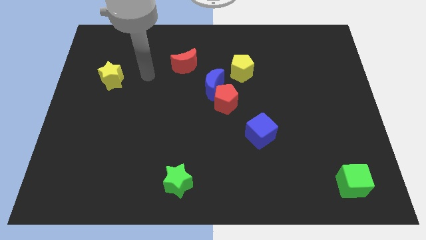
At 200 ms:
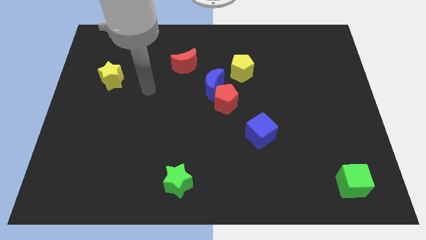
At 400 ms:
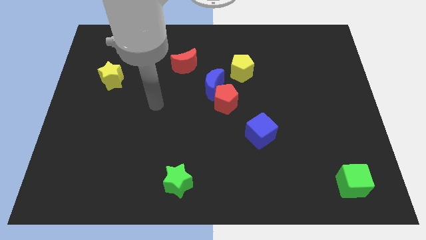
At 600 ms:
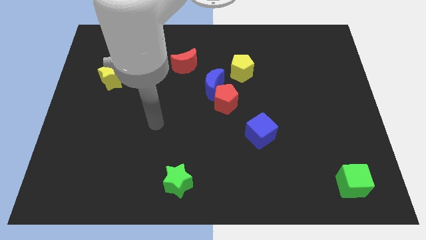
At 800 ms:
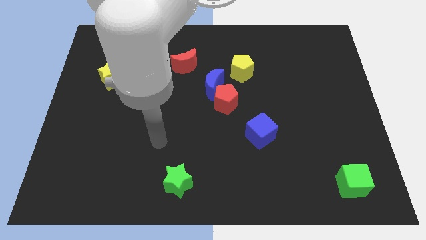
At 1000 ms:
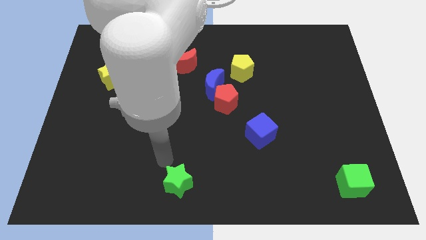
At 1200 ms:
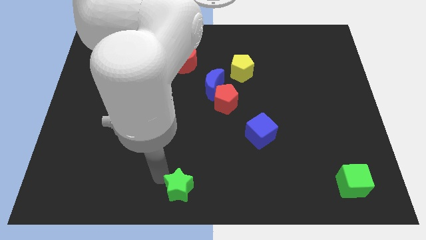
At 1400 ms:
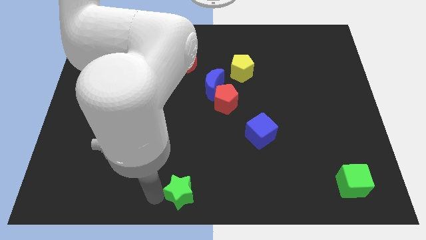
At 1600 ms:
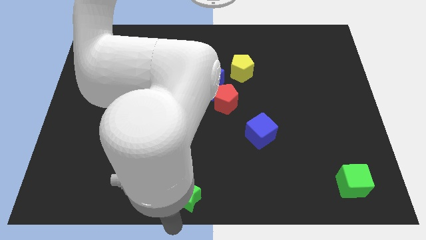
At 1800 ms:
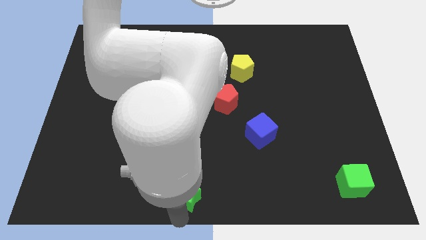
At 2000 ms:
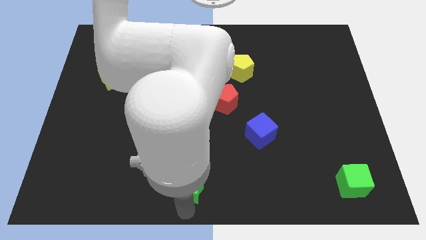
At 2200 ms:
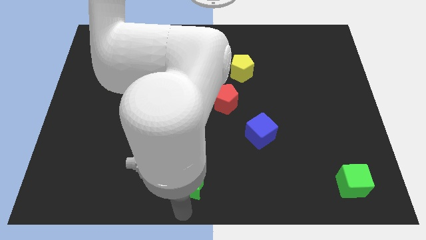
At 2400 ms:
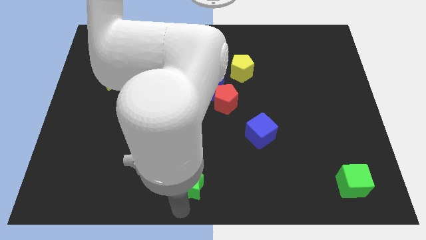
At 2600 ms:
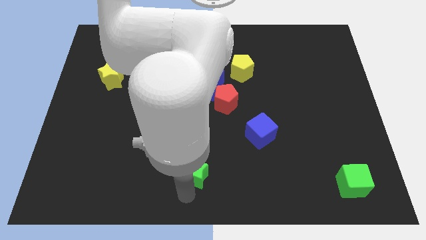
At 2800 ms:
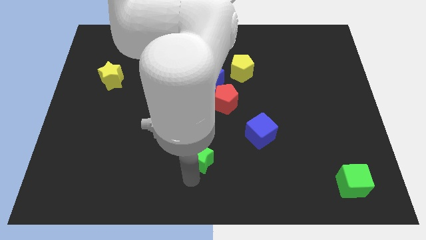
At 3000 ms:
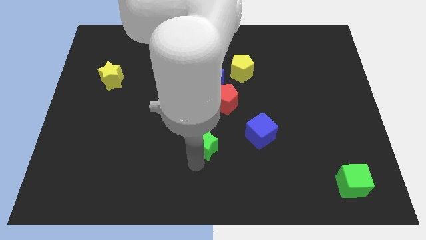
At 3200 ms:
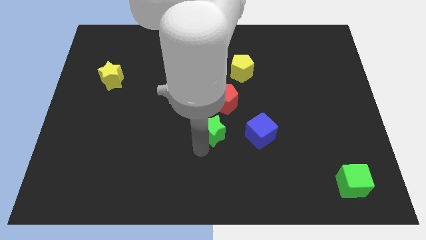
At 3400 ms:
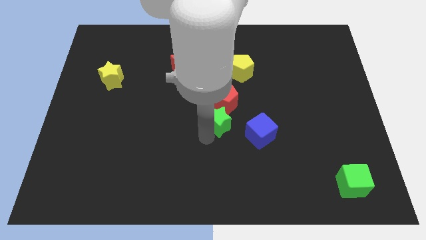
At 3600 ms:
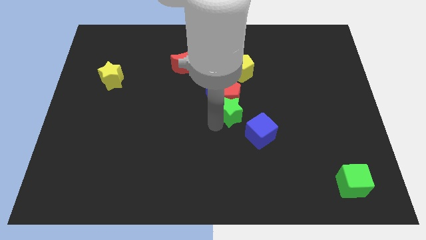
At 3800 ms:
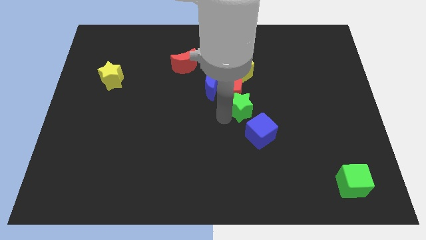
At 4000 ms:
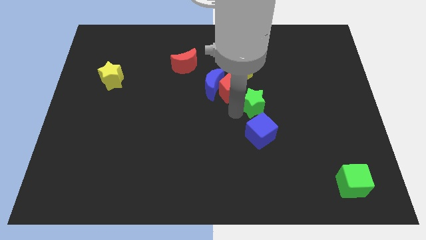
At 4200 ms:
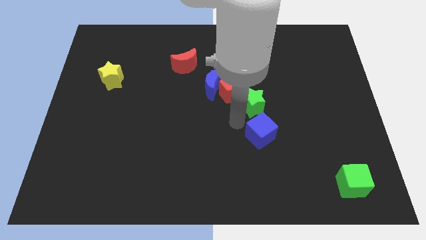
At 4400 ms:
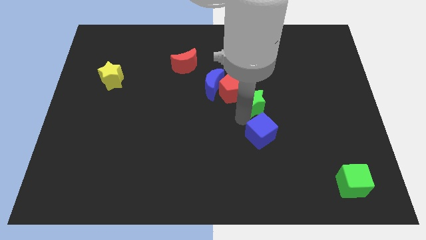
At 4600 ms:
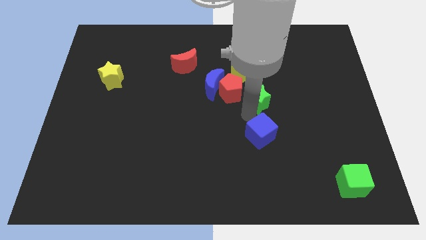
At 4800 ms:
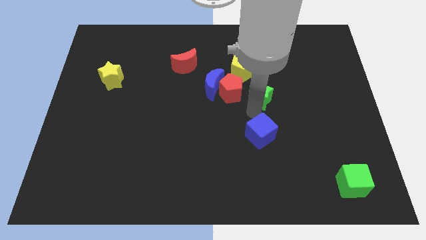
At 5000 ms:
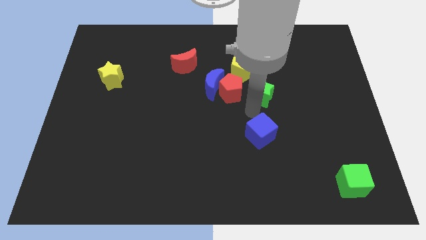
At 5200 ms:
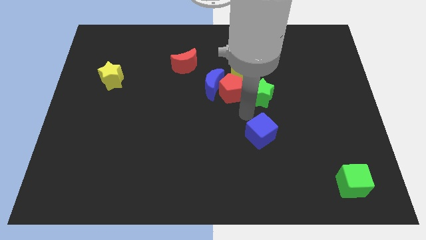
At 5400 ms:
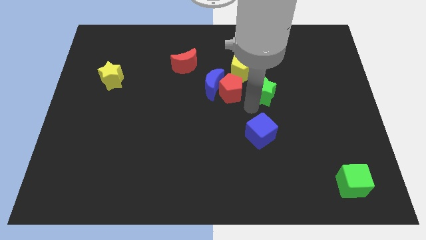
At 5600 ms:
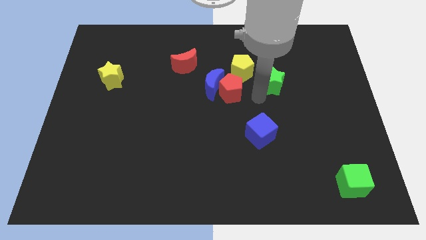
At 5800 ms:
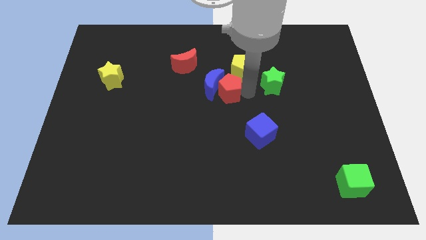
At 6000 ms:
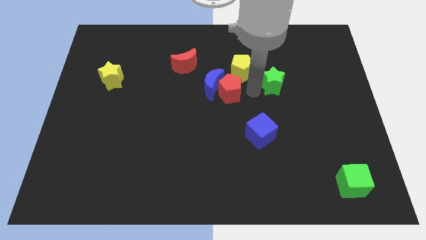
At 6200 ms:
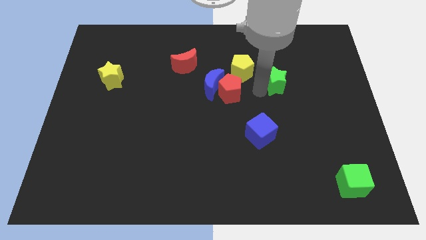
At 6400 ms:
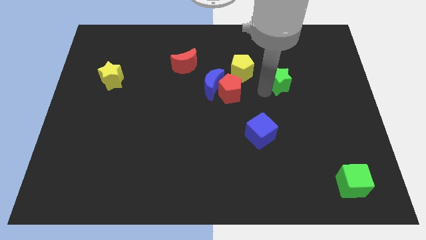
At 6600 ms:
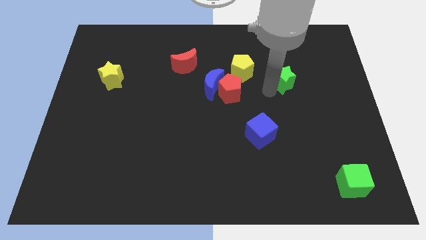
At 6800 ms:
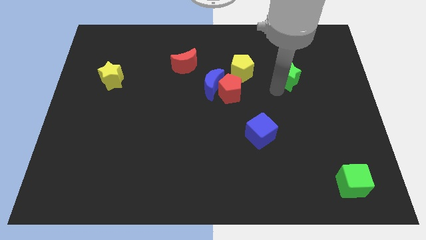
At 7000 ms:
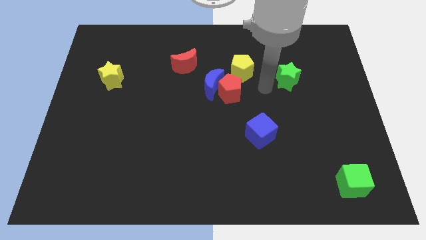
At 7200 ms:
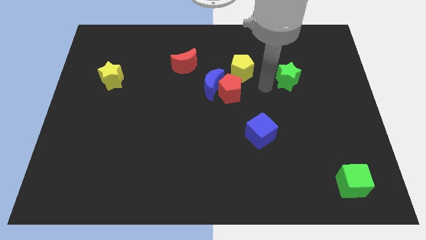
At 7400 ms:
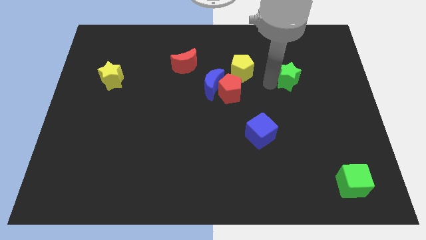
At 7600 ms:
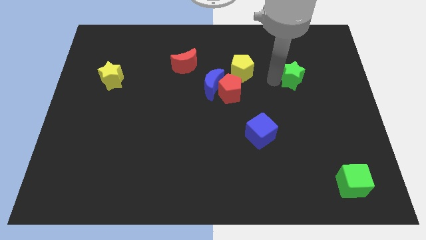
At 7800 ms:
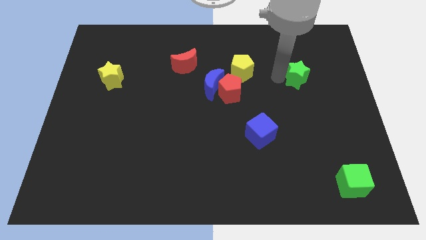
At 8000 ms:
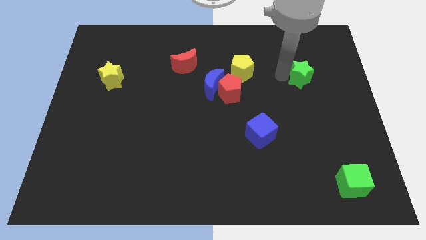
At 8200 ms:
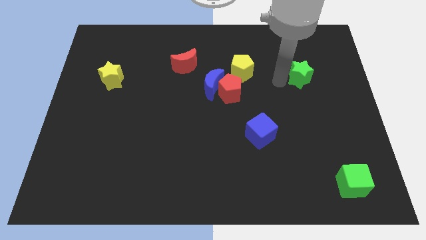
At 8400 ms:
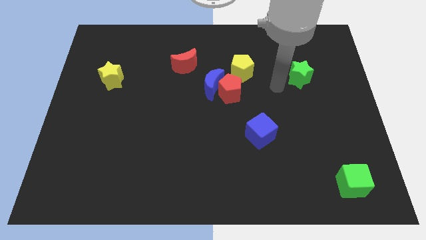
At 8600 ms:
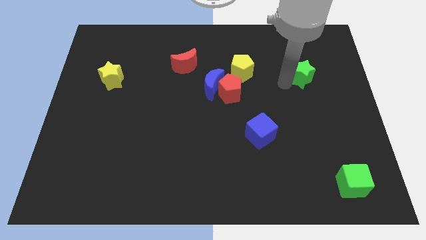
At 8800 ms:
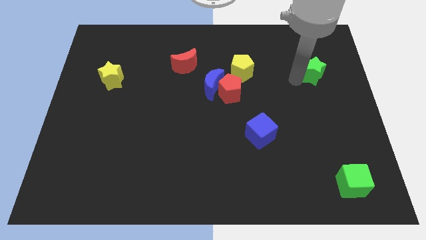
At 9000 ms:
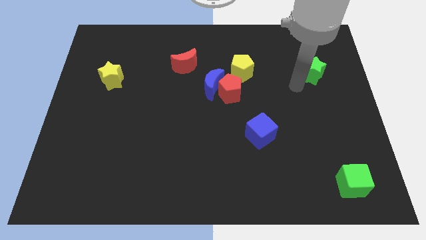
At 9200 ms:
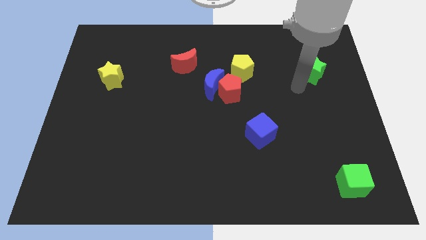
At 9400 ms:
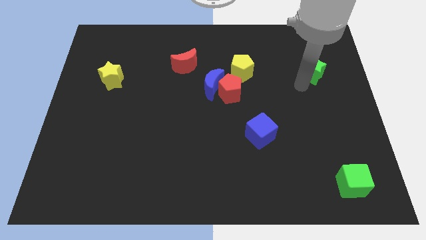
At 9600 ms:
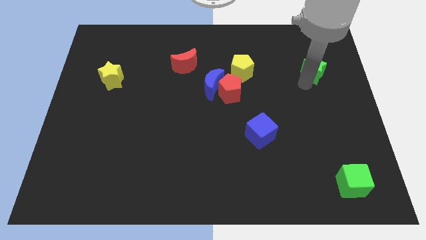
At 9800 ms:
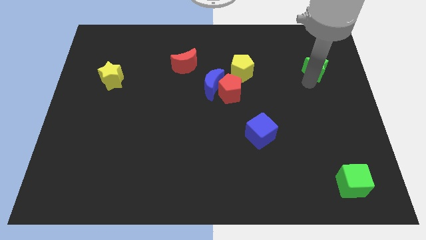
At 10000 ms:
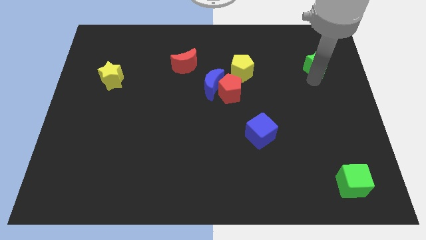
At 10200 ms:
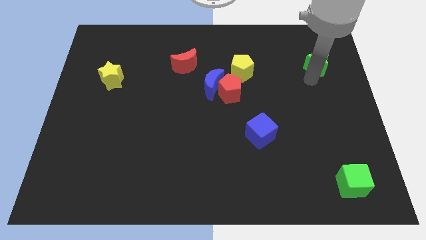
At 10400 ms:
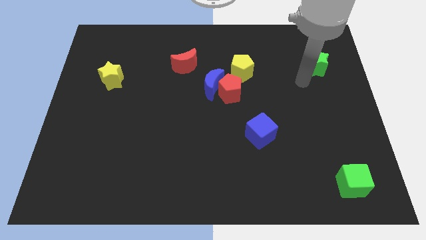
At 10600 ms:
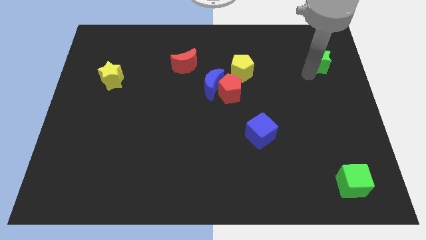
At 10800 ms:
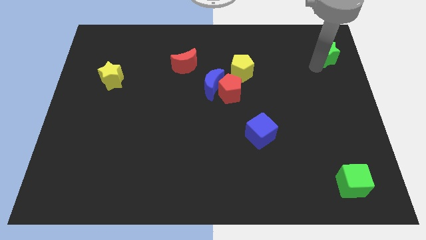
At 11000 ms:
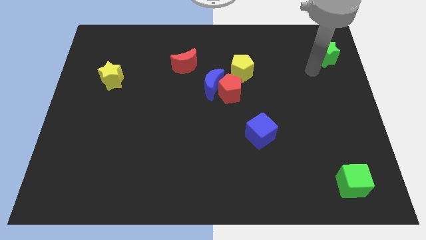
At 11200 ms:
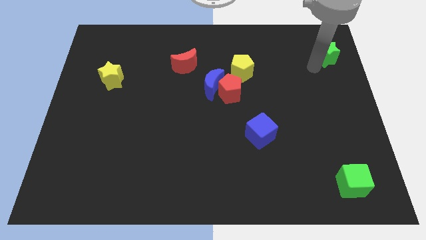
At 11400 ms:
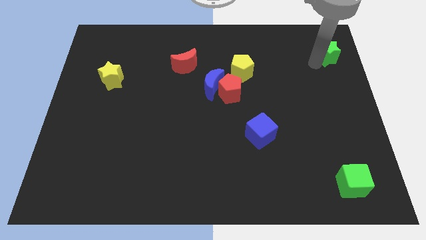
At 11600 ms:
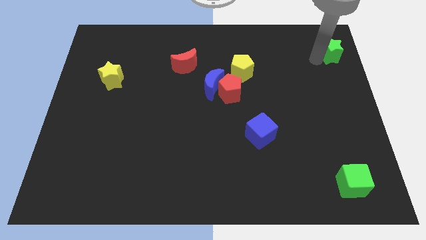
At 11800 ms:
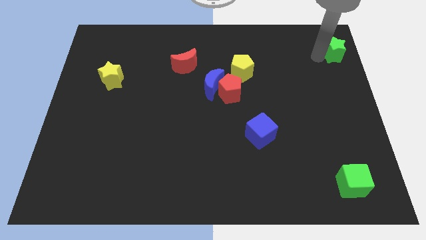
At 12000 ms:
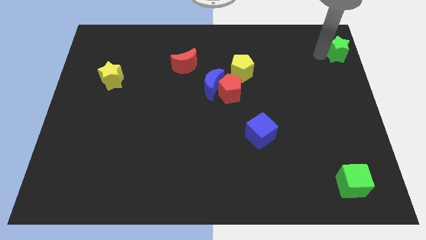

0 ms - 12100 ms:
push the green star to the top right corner

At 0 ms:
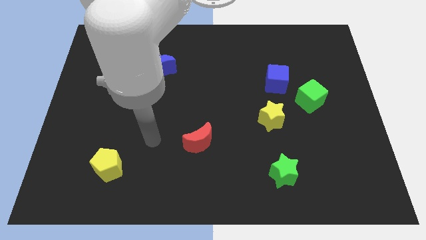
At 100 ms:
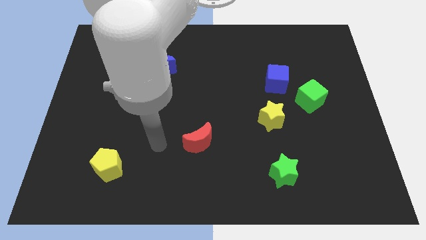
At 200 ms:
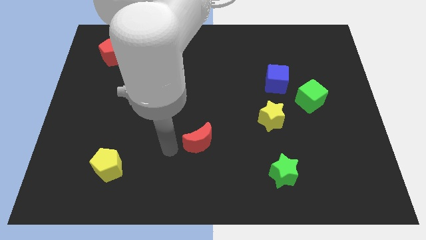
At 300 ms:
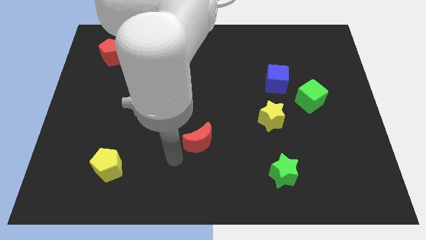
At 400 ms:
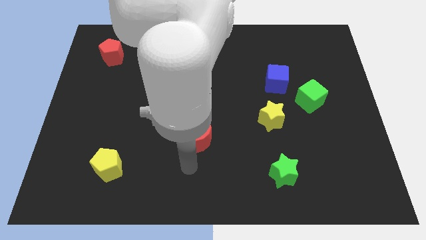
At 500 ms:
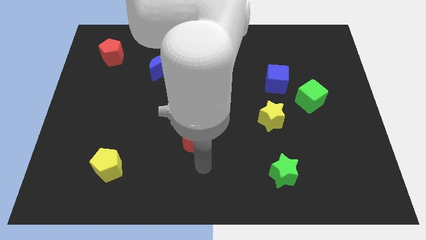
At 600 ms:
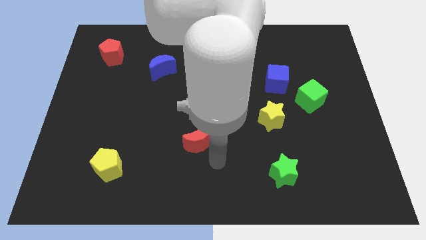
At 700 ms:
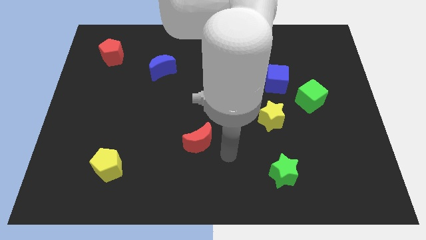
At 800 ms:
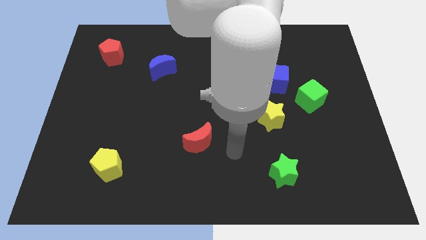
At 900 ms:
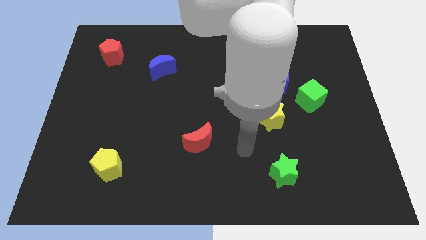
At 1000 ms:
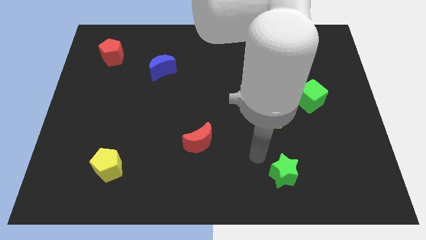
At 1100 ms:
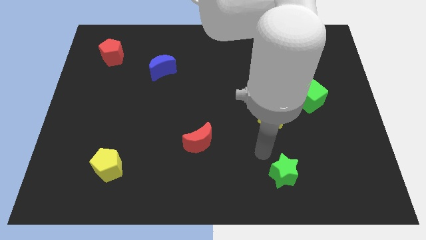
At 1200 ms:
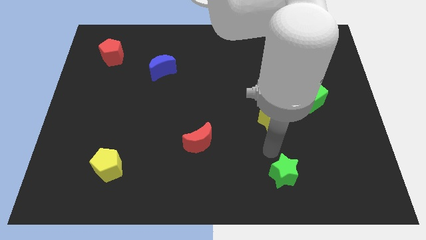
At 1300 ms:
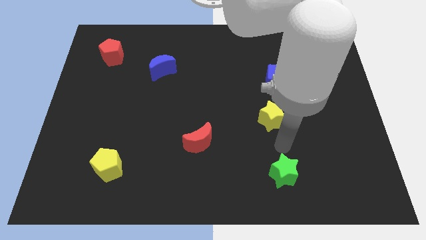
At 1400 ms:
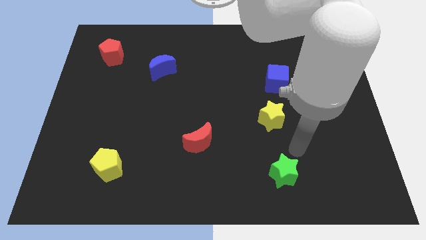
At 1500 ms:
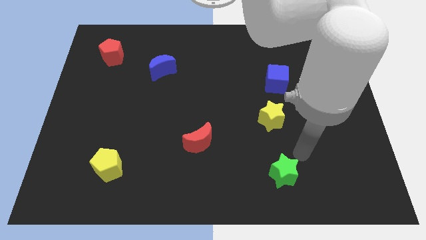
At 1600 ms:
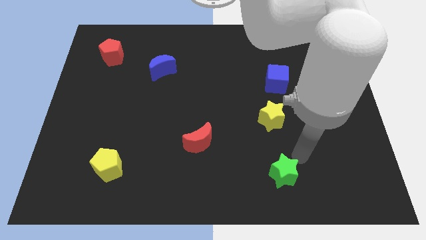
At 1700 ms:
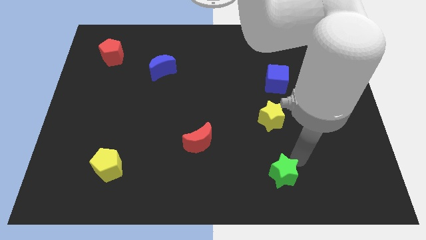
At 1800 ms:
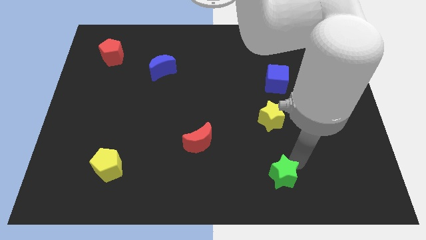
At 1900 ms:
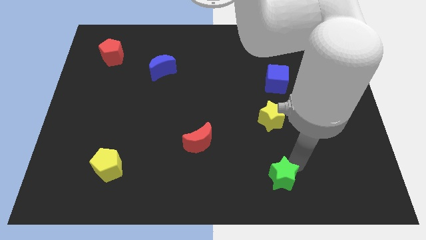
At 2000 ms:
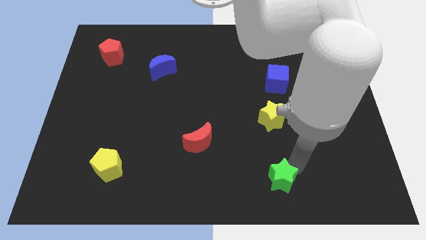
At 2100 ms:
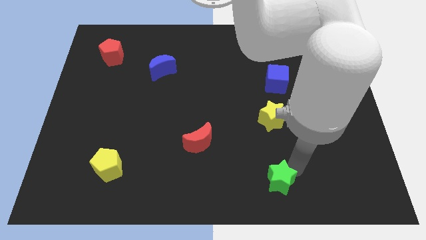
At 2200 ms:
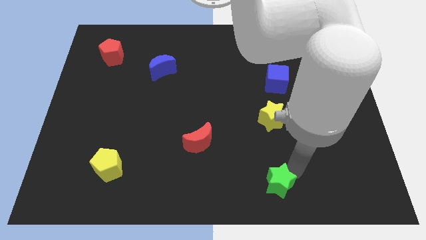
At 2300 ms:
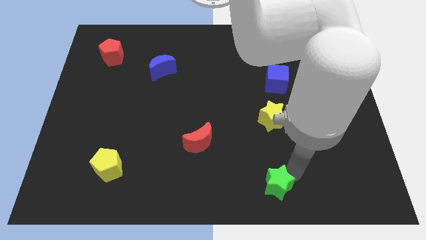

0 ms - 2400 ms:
slide the green star to the bottom side
